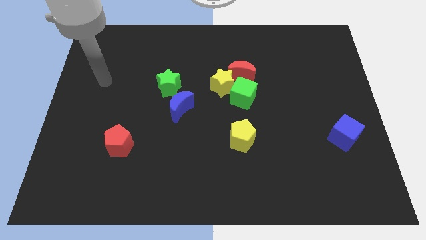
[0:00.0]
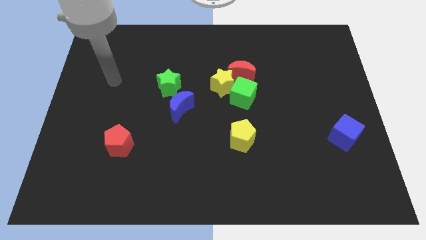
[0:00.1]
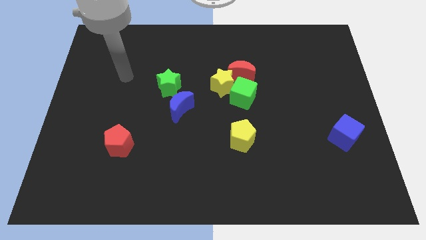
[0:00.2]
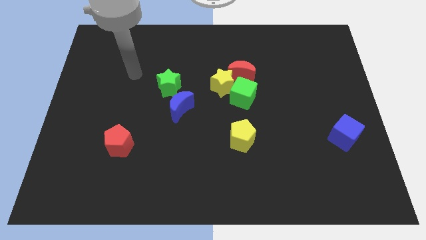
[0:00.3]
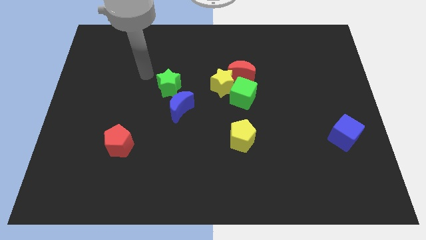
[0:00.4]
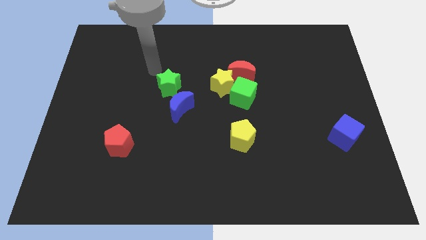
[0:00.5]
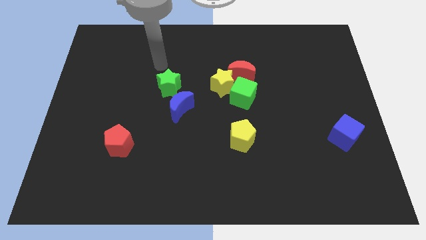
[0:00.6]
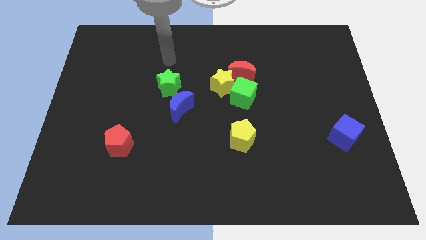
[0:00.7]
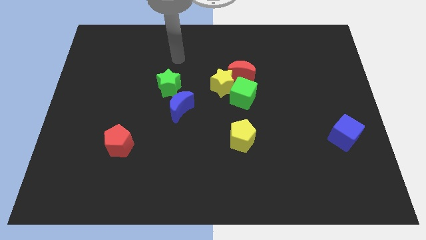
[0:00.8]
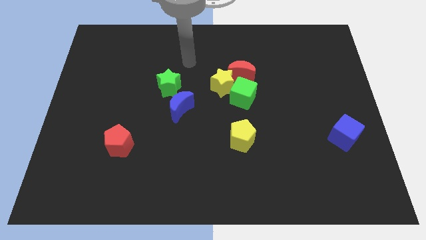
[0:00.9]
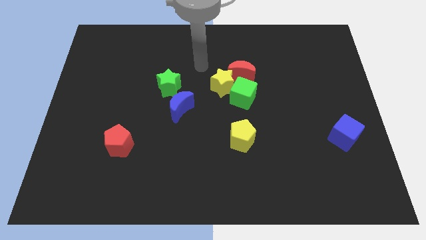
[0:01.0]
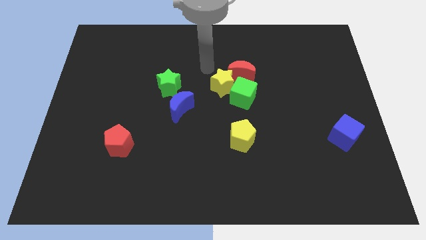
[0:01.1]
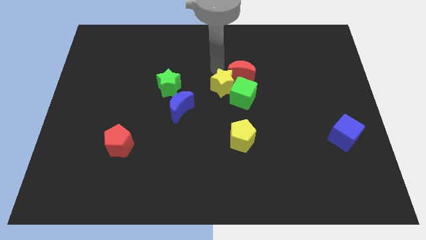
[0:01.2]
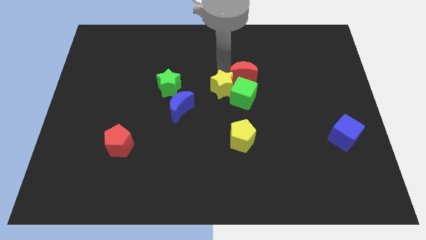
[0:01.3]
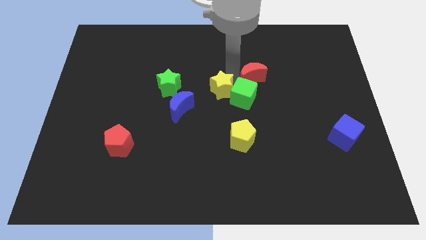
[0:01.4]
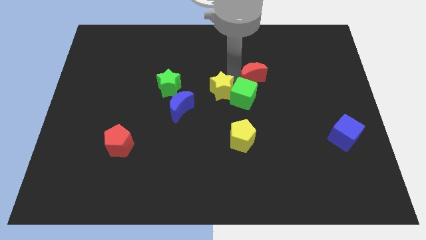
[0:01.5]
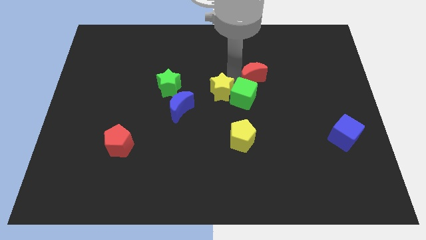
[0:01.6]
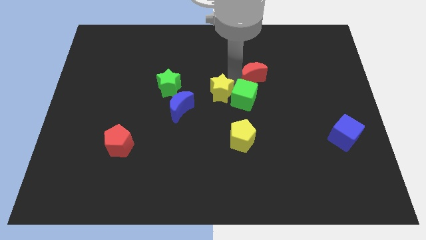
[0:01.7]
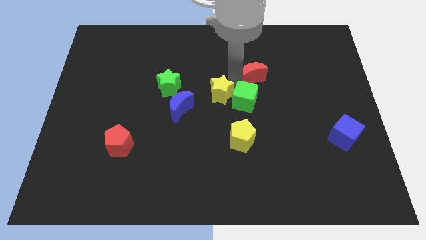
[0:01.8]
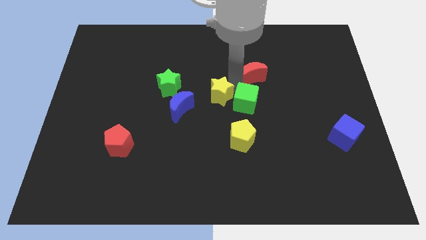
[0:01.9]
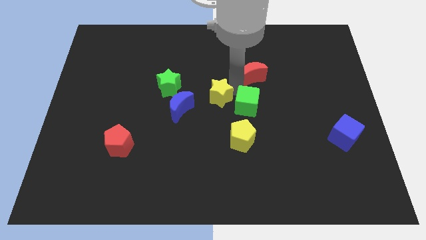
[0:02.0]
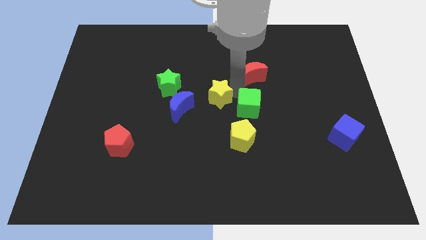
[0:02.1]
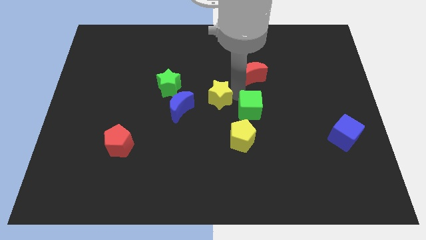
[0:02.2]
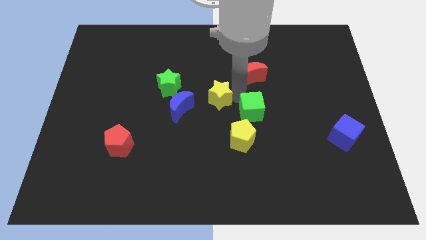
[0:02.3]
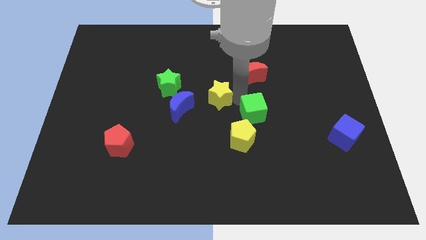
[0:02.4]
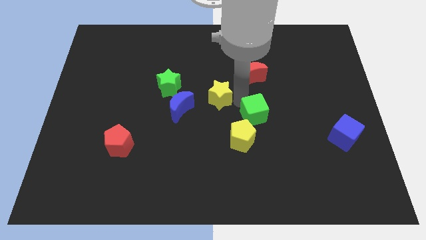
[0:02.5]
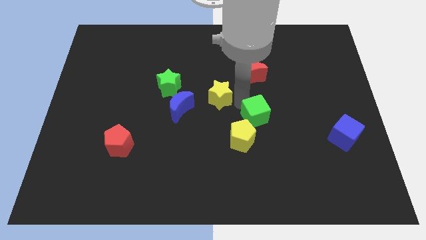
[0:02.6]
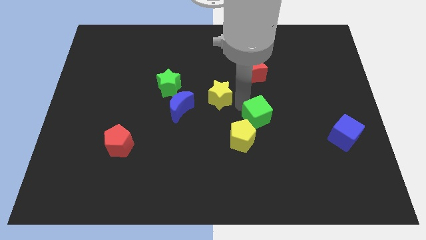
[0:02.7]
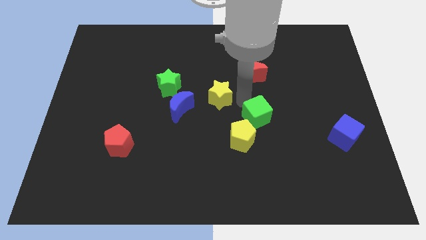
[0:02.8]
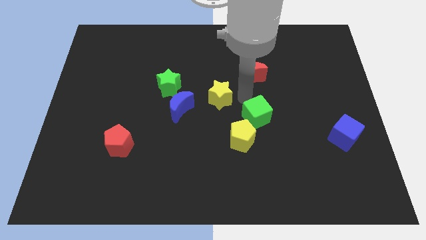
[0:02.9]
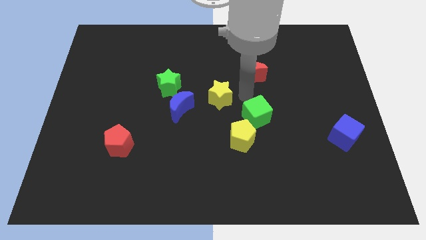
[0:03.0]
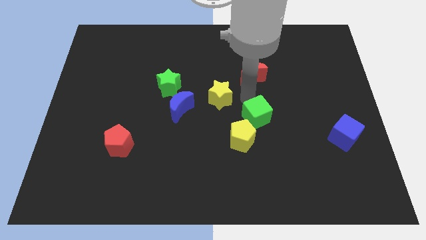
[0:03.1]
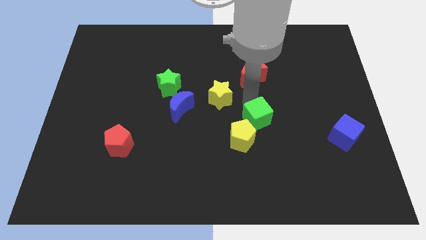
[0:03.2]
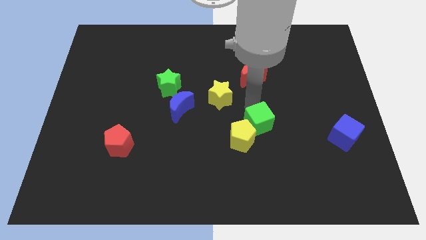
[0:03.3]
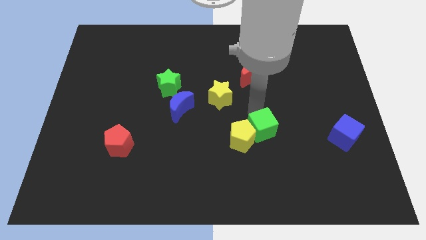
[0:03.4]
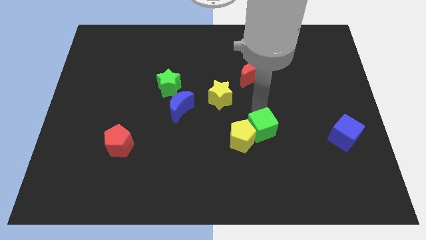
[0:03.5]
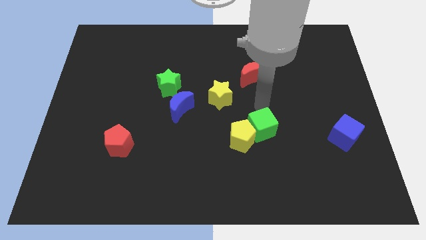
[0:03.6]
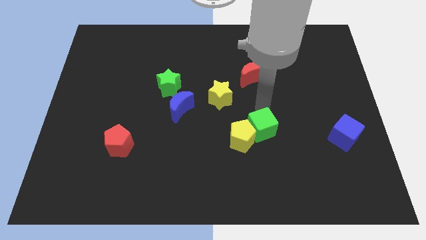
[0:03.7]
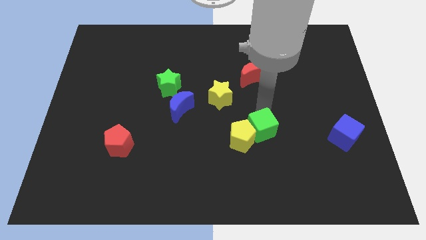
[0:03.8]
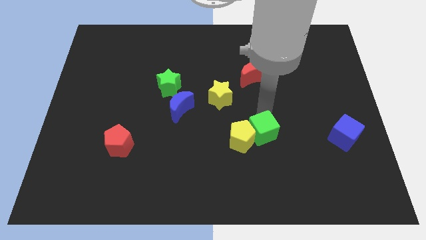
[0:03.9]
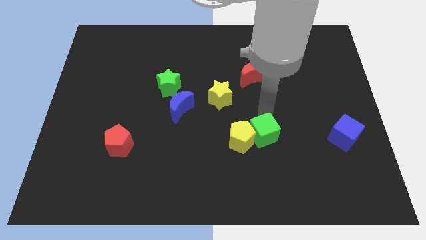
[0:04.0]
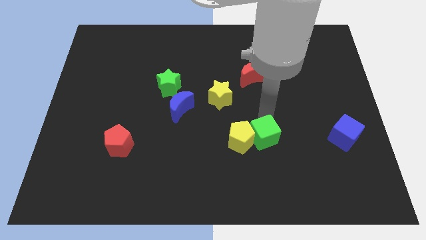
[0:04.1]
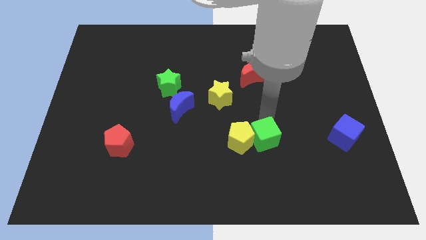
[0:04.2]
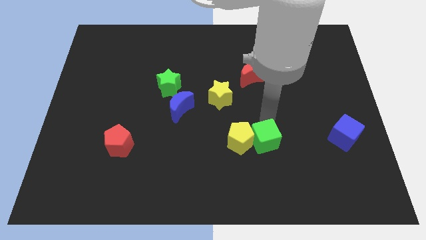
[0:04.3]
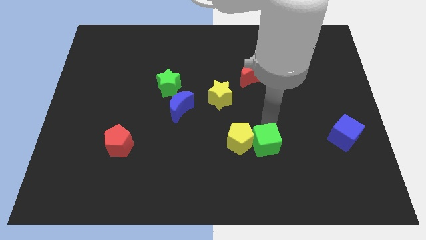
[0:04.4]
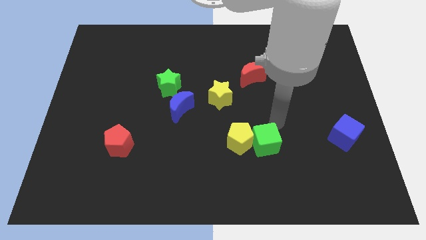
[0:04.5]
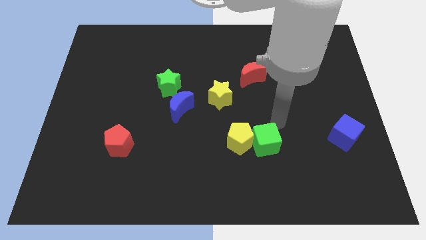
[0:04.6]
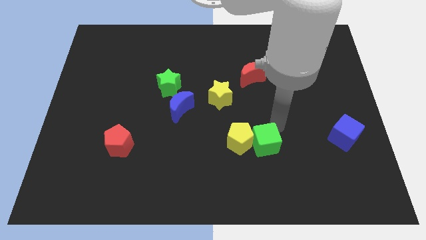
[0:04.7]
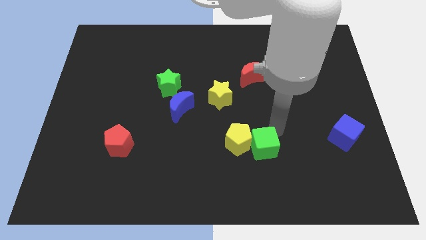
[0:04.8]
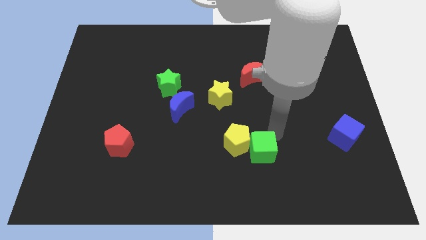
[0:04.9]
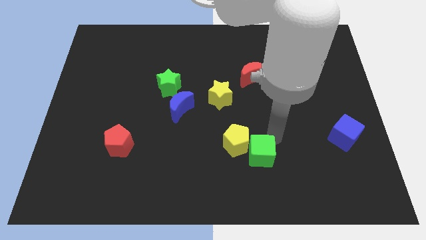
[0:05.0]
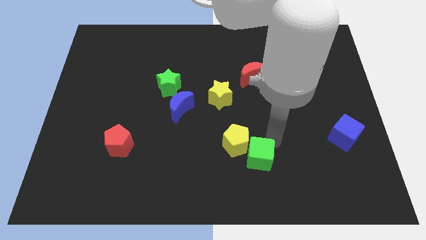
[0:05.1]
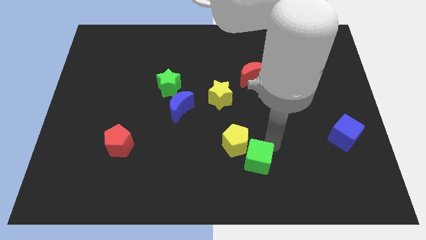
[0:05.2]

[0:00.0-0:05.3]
push the green cube below the yellow pentagon
